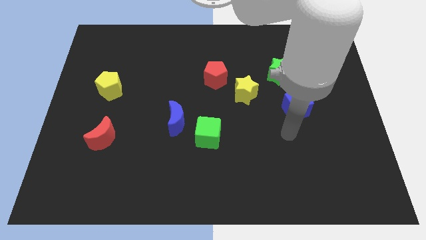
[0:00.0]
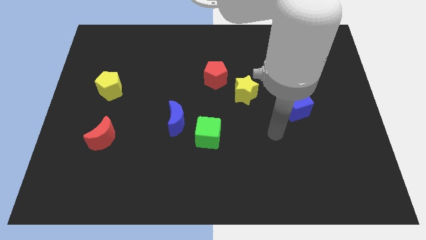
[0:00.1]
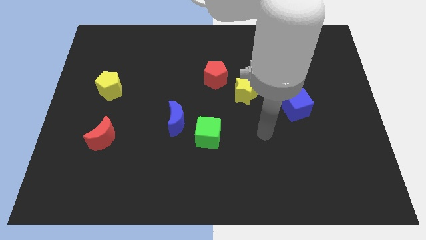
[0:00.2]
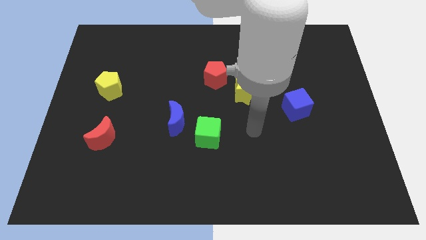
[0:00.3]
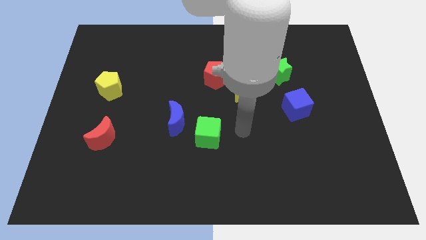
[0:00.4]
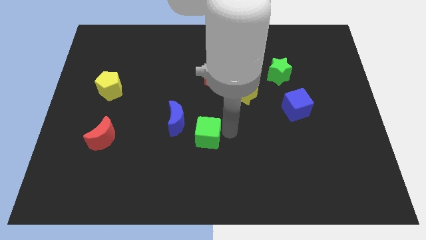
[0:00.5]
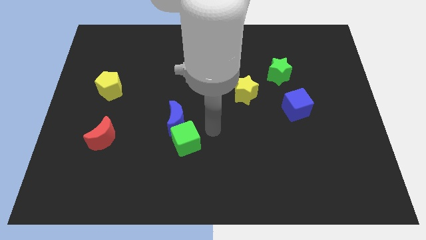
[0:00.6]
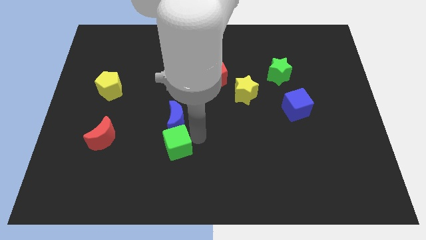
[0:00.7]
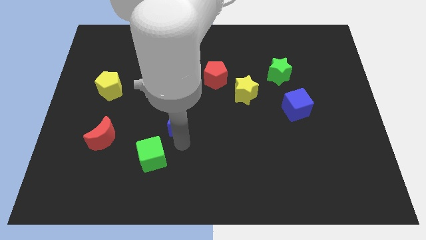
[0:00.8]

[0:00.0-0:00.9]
pull the blue moon apart from the green cube

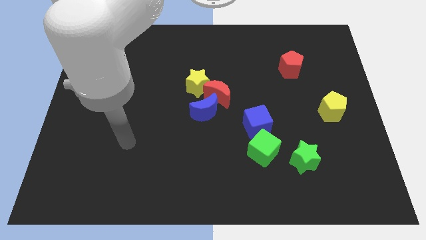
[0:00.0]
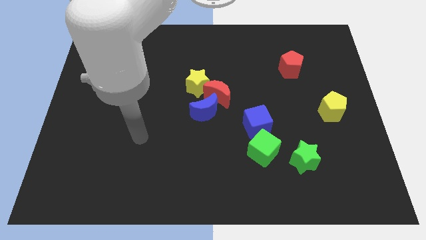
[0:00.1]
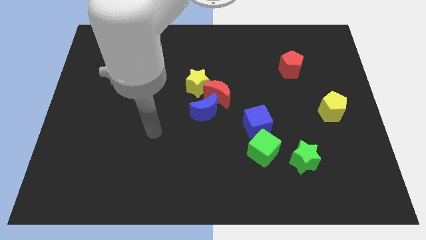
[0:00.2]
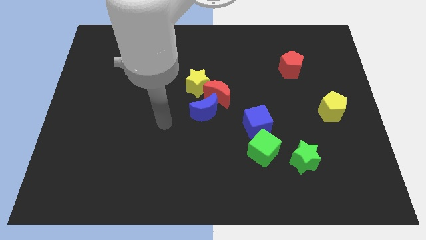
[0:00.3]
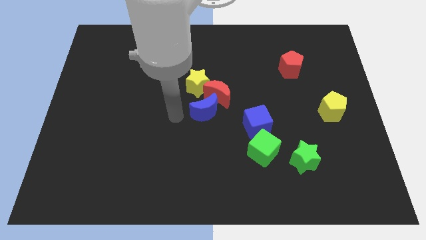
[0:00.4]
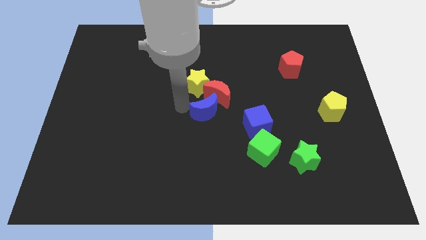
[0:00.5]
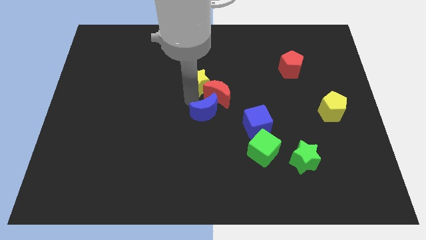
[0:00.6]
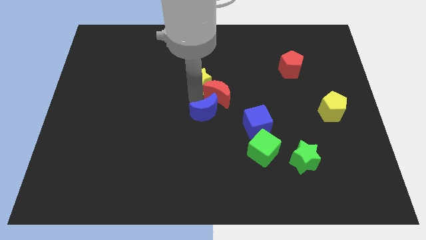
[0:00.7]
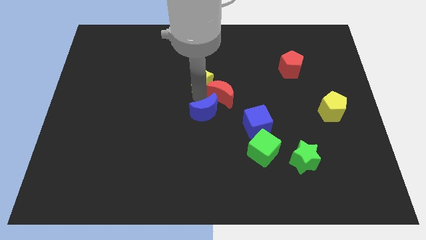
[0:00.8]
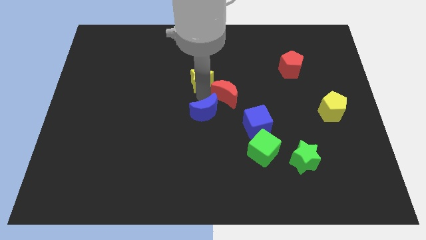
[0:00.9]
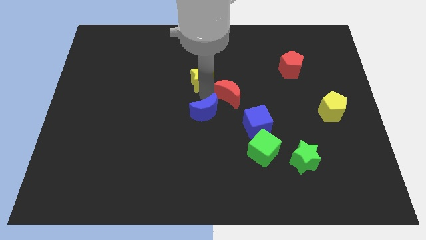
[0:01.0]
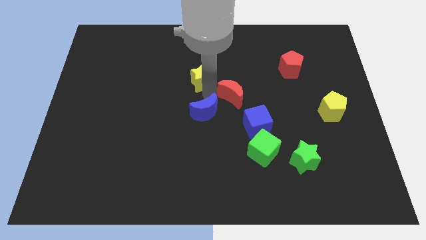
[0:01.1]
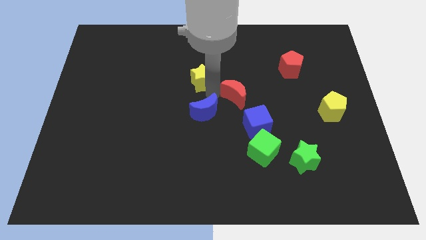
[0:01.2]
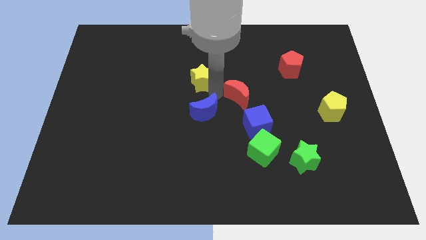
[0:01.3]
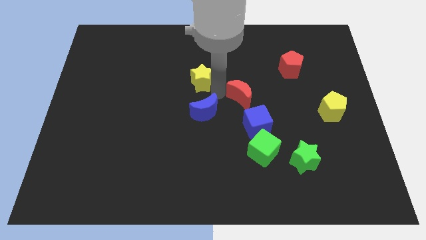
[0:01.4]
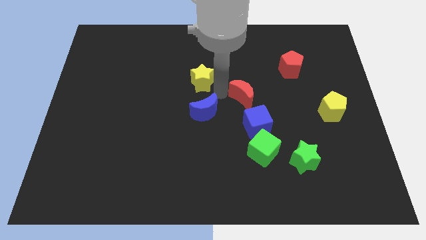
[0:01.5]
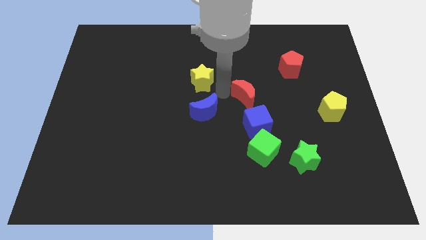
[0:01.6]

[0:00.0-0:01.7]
pull the red moon apart from the blue moon and yellow star

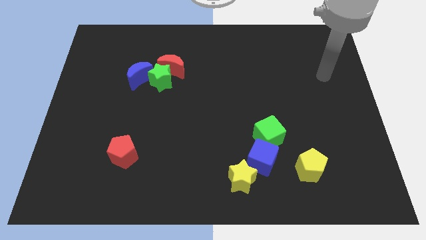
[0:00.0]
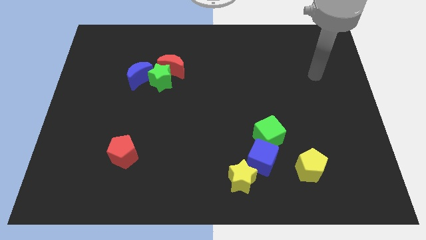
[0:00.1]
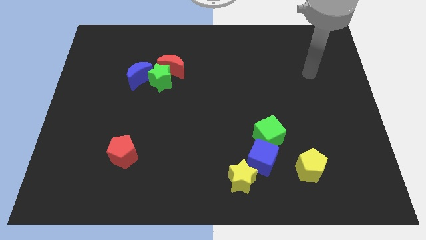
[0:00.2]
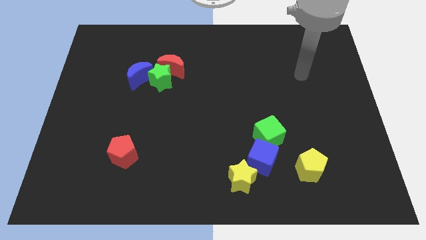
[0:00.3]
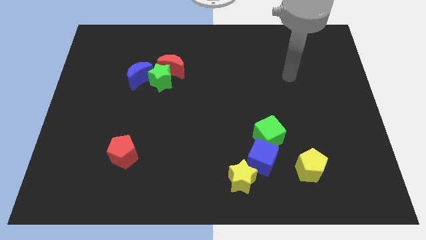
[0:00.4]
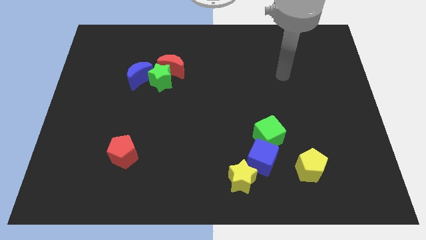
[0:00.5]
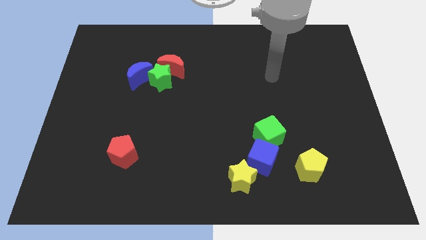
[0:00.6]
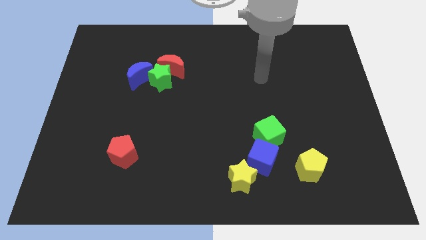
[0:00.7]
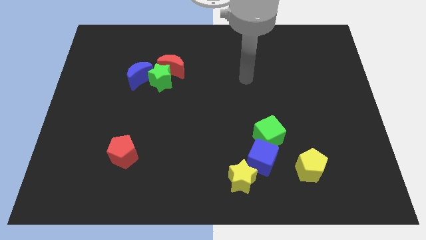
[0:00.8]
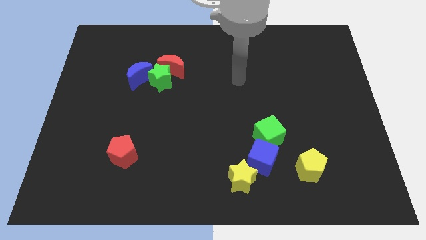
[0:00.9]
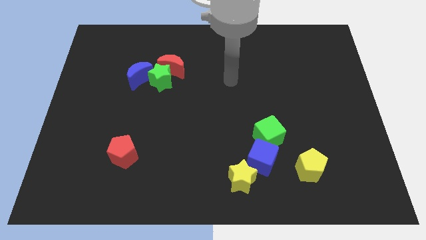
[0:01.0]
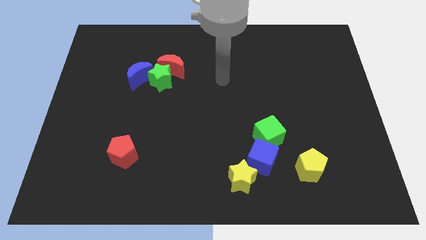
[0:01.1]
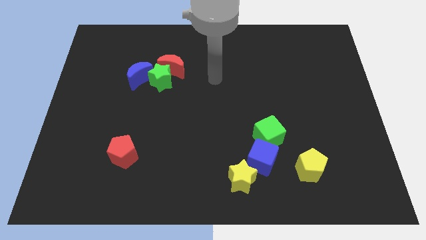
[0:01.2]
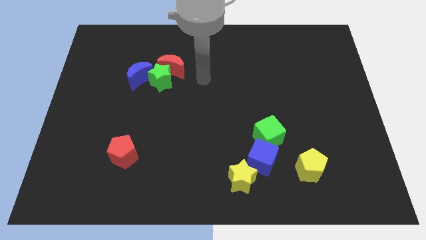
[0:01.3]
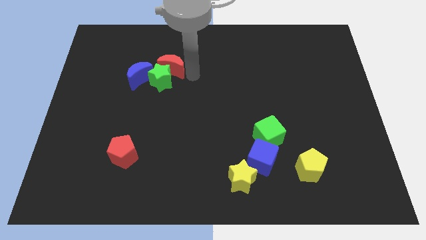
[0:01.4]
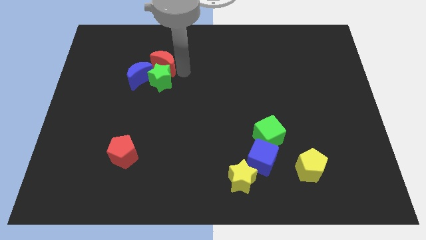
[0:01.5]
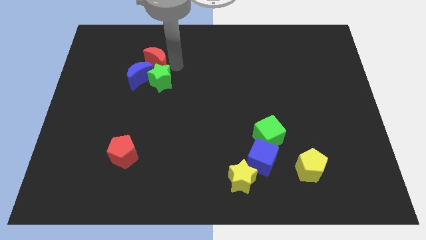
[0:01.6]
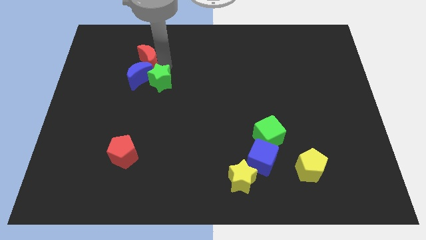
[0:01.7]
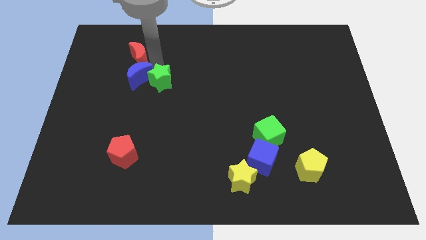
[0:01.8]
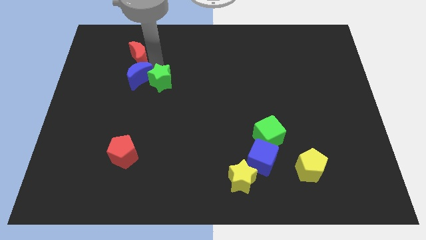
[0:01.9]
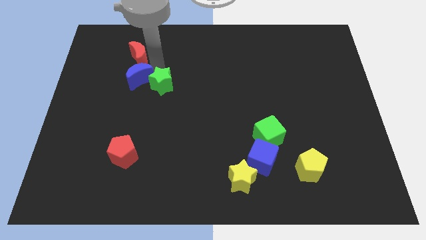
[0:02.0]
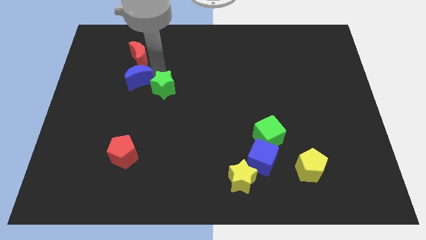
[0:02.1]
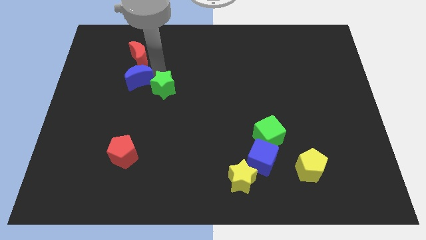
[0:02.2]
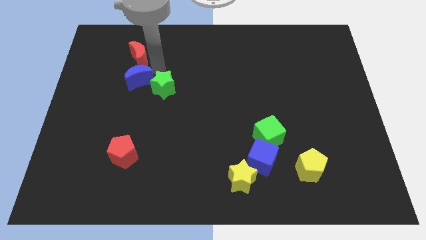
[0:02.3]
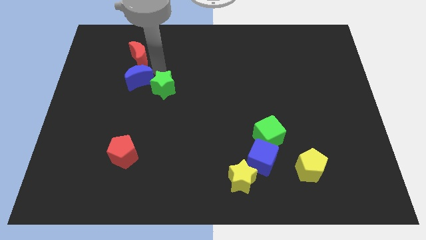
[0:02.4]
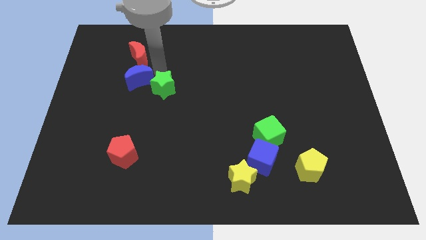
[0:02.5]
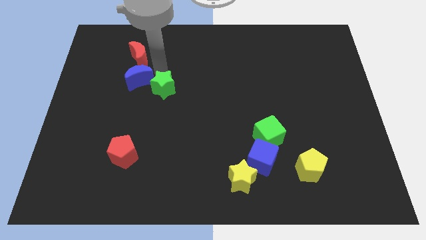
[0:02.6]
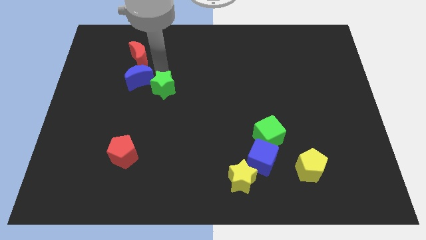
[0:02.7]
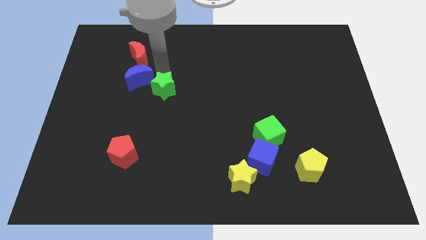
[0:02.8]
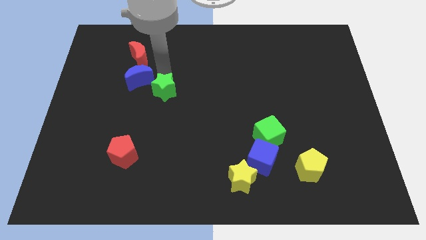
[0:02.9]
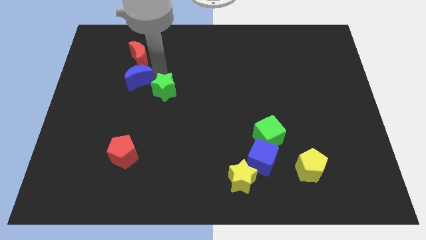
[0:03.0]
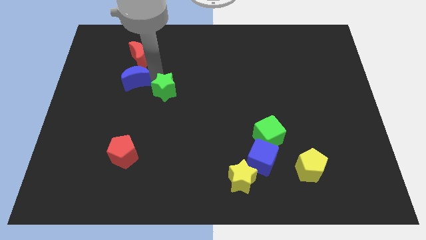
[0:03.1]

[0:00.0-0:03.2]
move the green star away from the red moon and blue moon

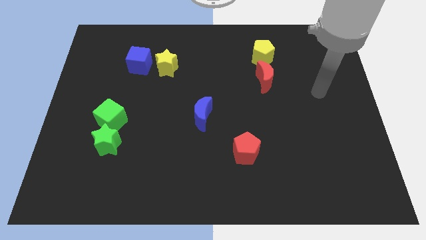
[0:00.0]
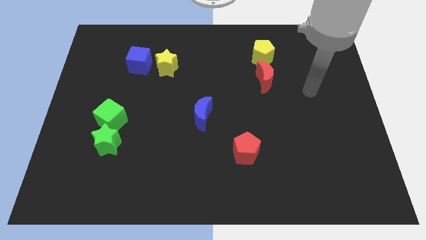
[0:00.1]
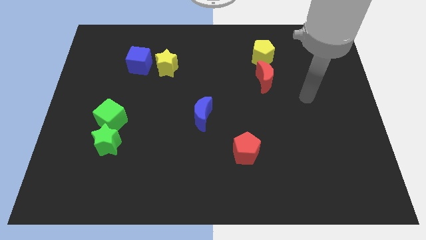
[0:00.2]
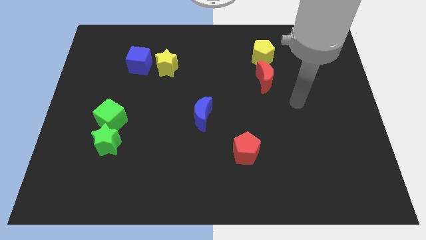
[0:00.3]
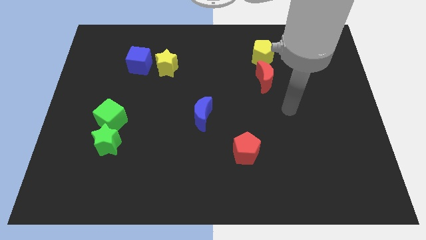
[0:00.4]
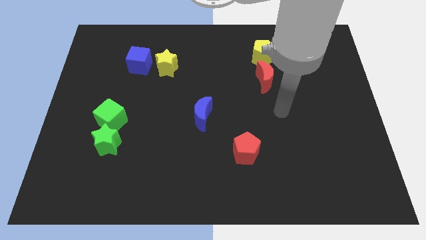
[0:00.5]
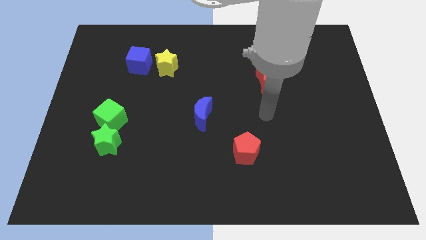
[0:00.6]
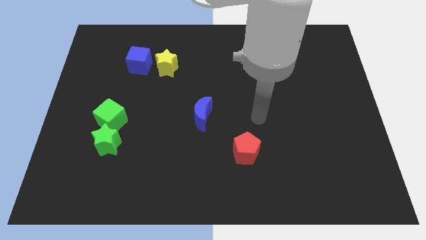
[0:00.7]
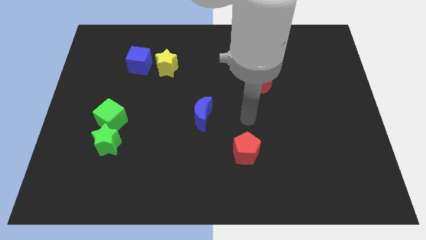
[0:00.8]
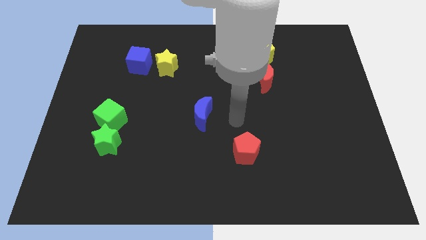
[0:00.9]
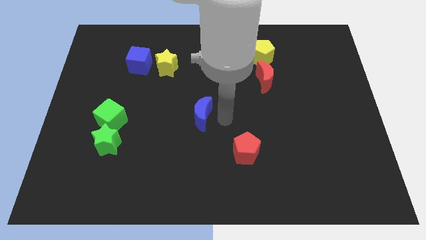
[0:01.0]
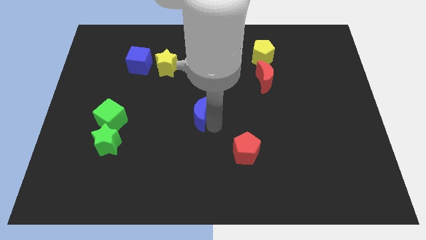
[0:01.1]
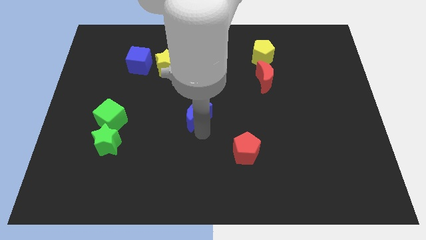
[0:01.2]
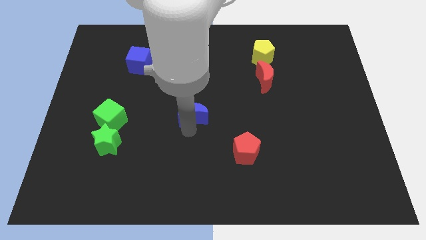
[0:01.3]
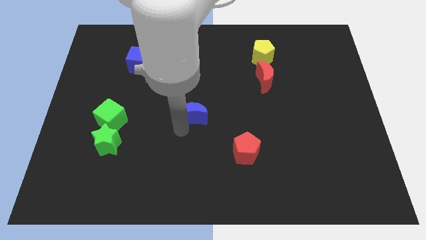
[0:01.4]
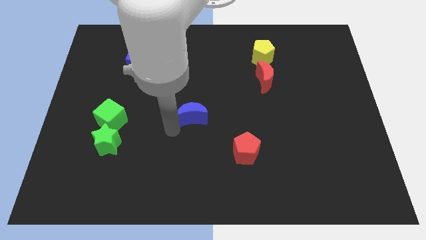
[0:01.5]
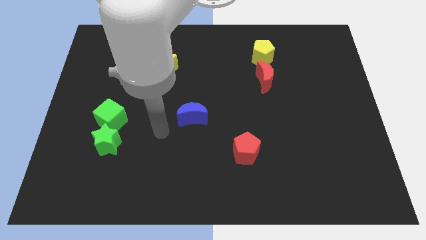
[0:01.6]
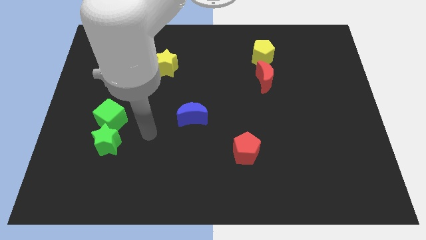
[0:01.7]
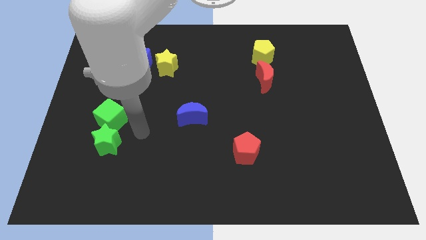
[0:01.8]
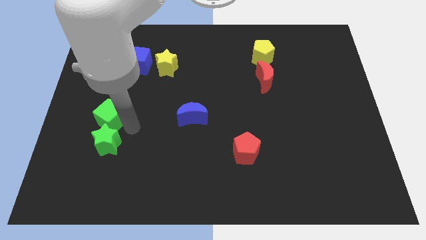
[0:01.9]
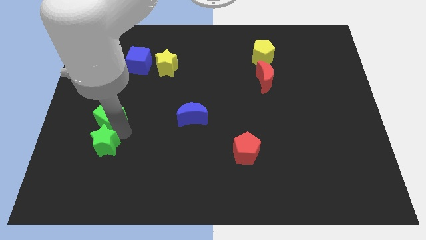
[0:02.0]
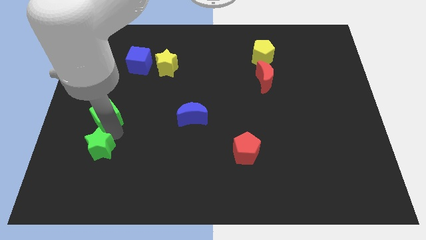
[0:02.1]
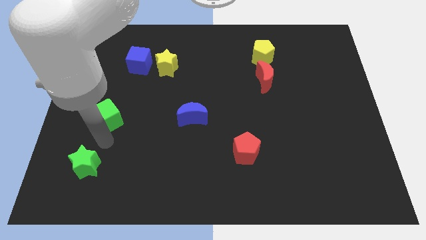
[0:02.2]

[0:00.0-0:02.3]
separate the green cube from the green star

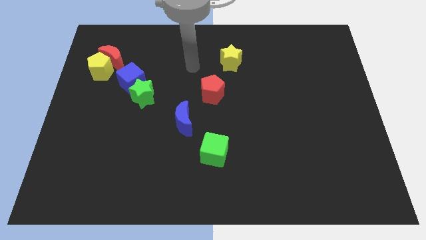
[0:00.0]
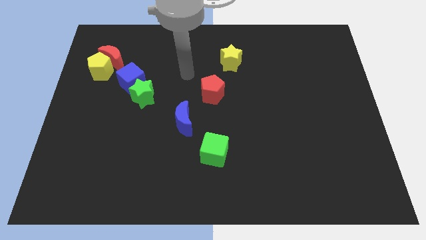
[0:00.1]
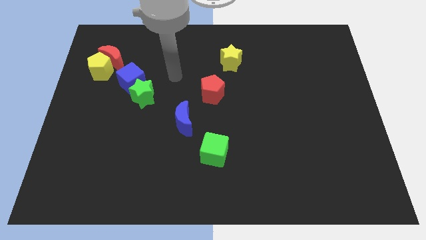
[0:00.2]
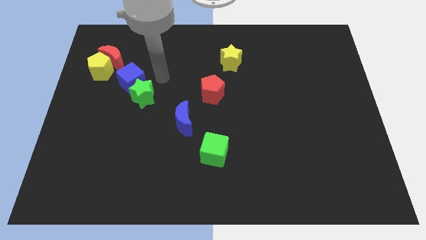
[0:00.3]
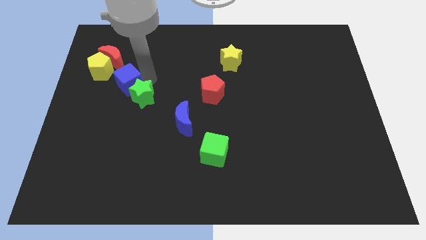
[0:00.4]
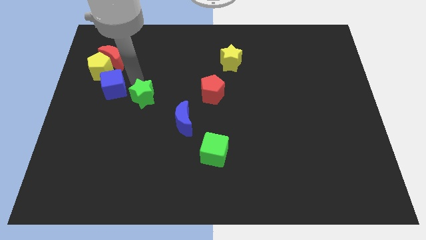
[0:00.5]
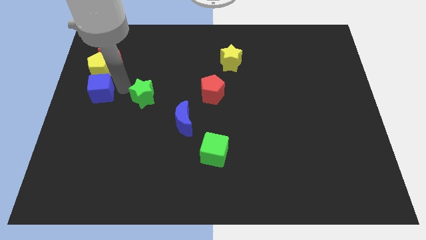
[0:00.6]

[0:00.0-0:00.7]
pull the green star apart from the blue cube

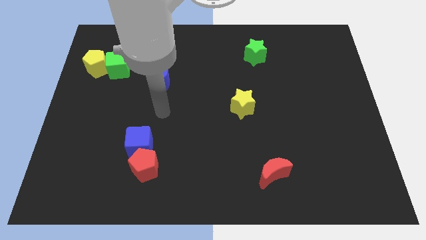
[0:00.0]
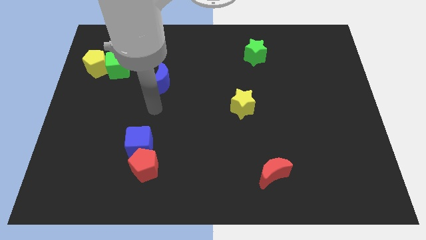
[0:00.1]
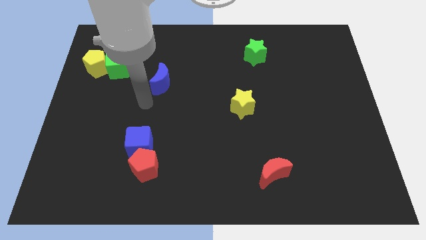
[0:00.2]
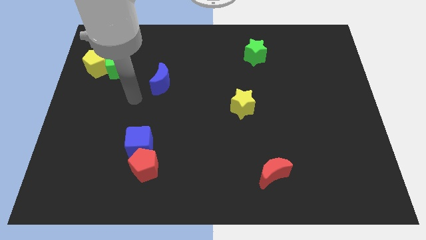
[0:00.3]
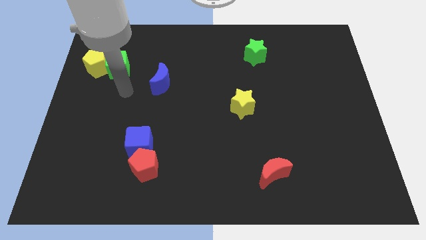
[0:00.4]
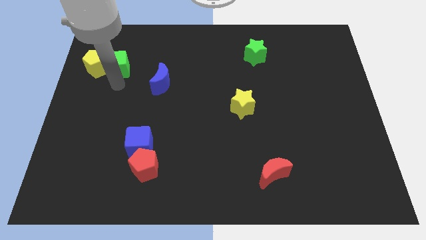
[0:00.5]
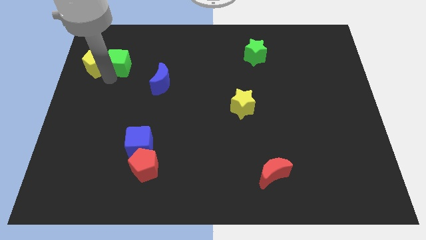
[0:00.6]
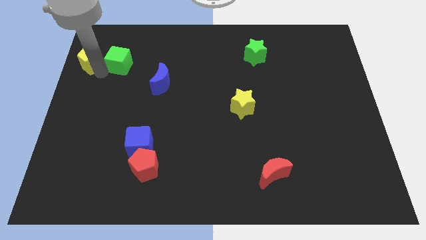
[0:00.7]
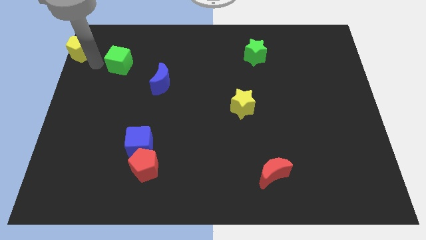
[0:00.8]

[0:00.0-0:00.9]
pull the green cube apart from the yellow pentagon
